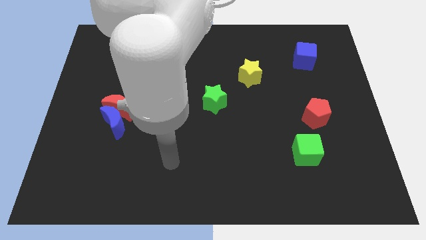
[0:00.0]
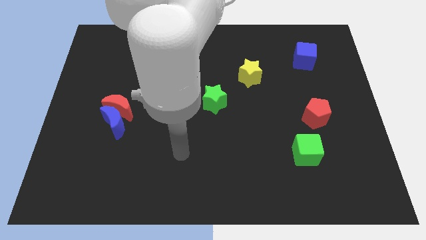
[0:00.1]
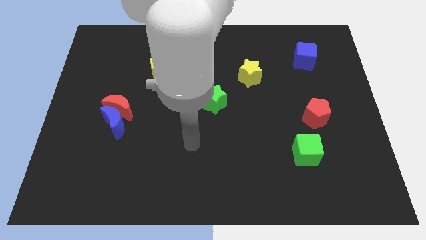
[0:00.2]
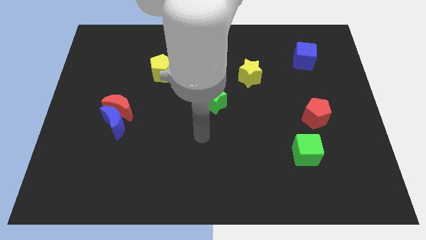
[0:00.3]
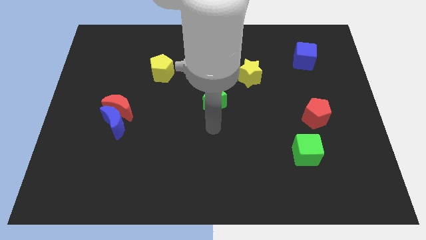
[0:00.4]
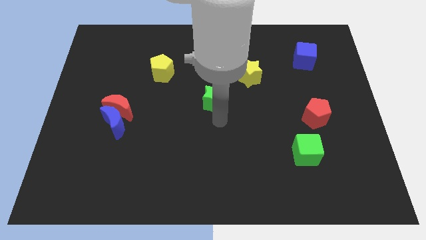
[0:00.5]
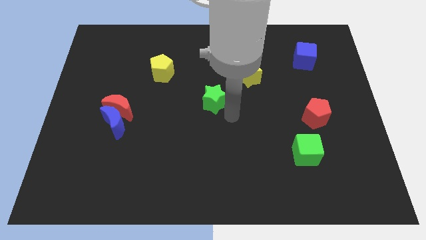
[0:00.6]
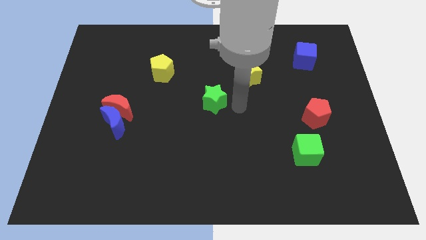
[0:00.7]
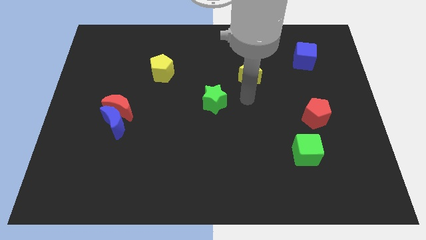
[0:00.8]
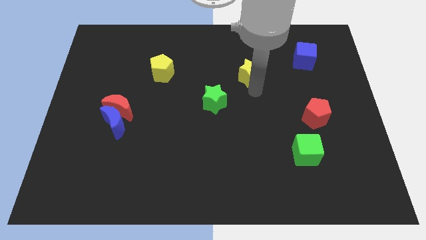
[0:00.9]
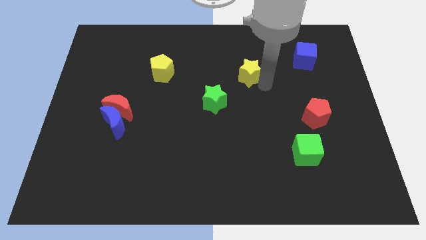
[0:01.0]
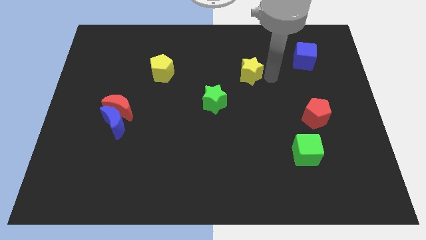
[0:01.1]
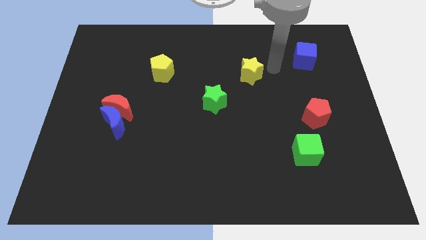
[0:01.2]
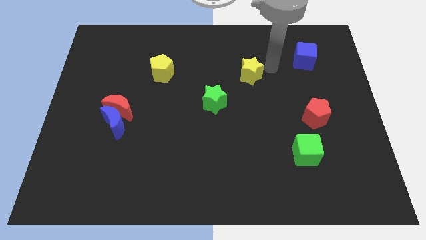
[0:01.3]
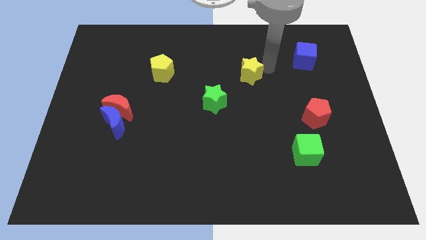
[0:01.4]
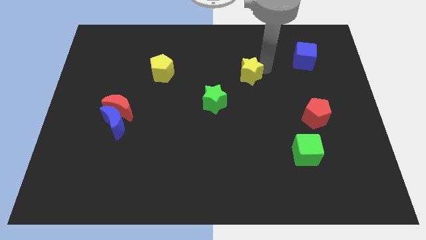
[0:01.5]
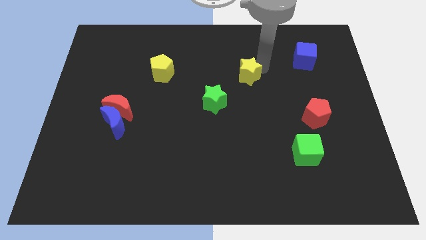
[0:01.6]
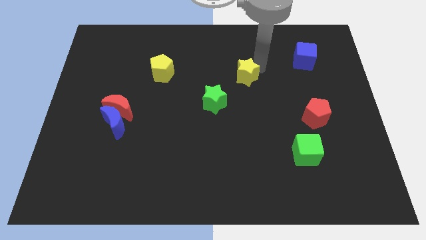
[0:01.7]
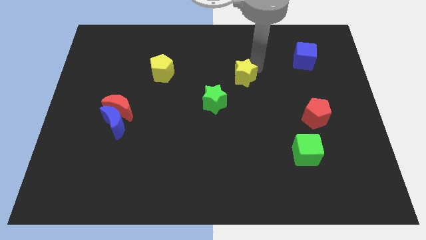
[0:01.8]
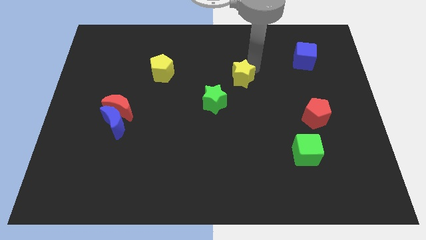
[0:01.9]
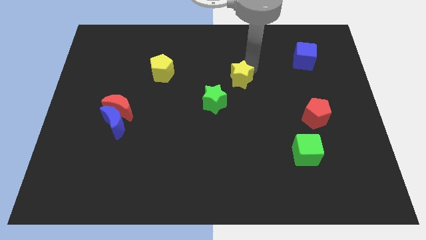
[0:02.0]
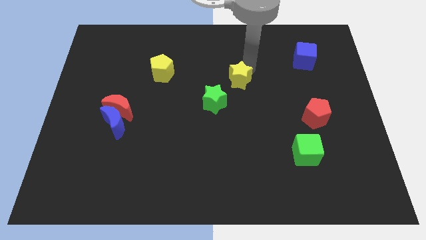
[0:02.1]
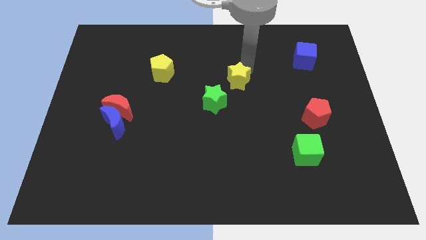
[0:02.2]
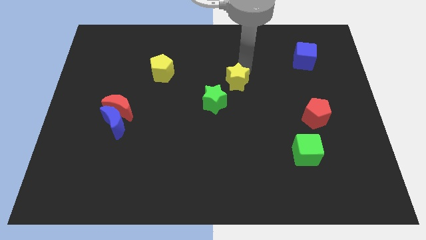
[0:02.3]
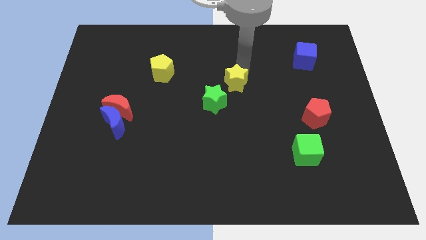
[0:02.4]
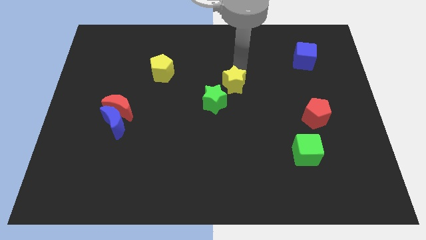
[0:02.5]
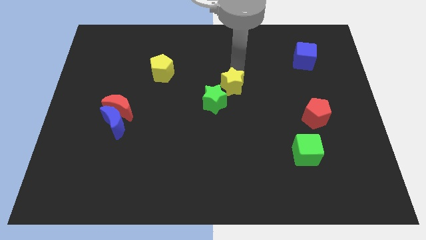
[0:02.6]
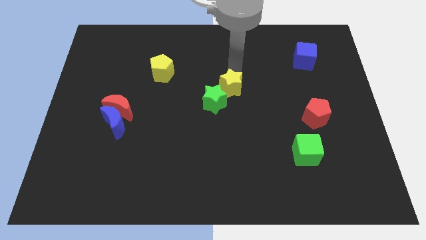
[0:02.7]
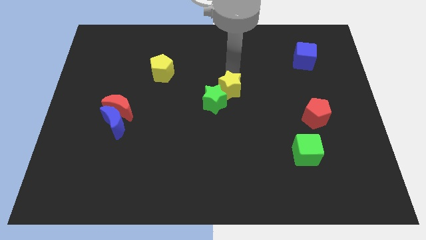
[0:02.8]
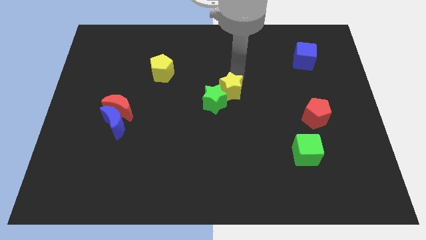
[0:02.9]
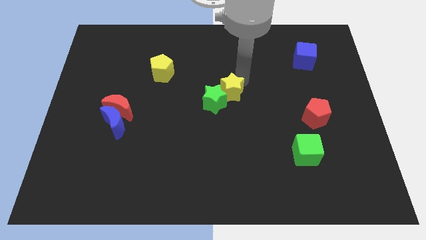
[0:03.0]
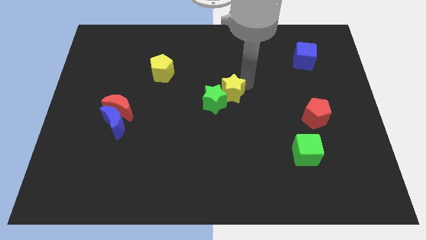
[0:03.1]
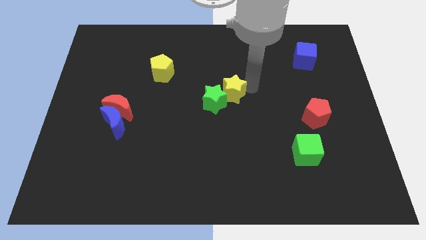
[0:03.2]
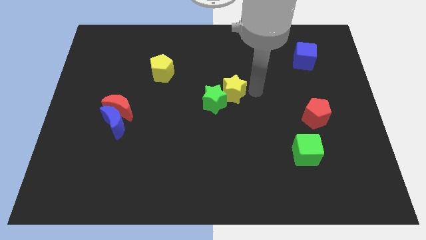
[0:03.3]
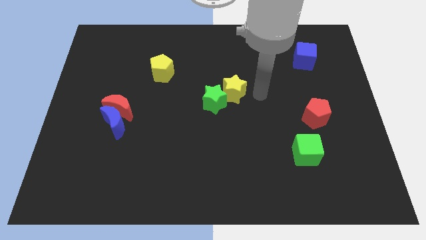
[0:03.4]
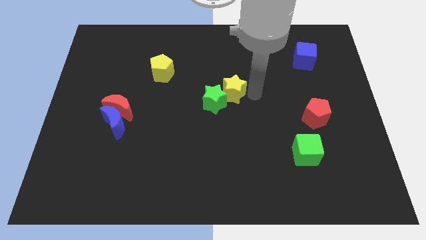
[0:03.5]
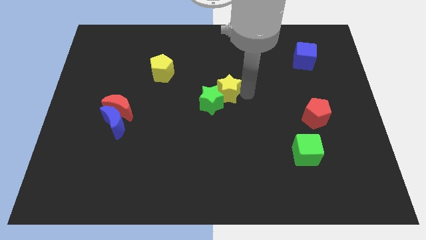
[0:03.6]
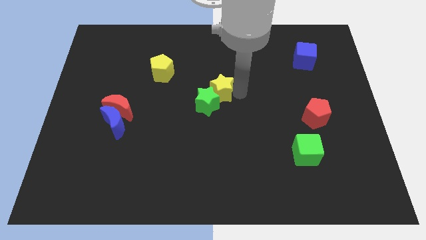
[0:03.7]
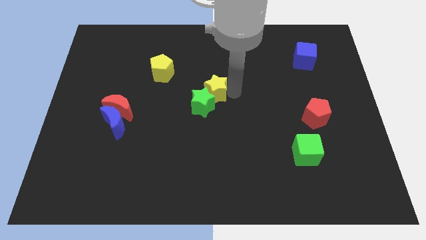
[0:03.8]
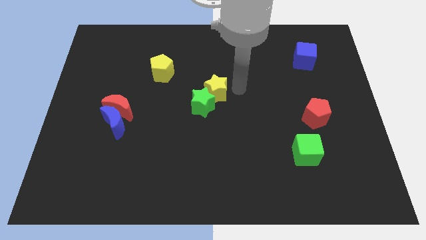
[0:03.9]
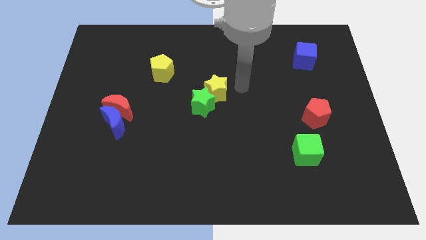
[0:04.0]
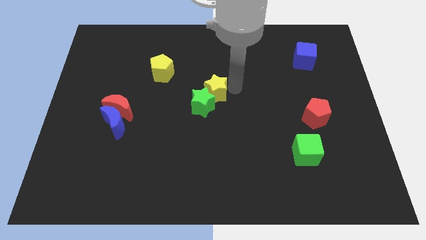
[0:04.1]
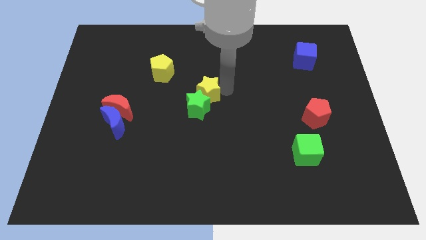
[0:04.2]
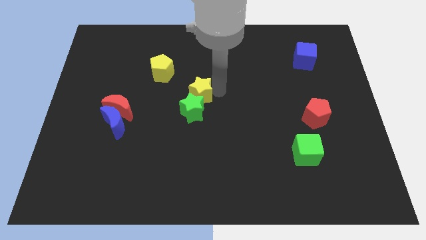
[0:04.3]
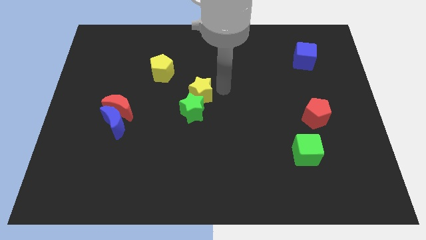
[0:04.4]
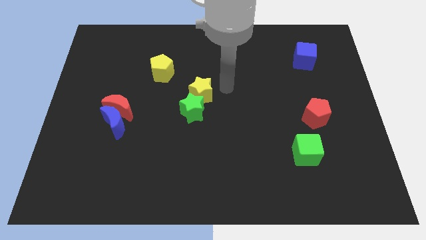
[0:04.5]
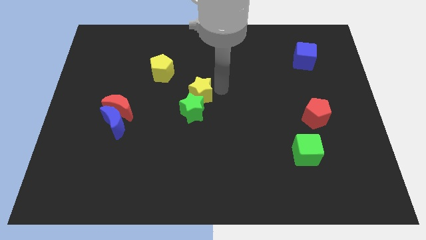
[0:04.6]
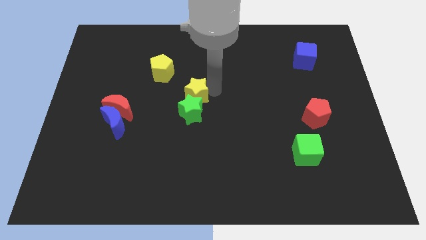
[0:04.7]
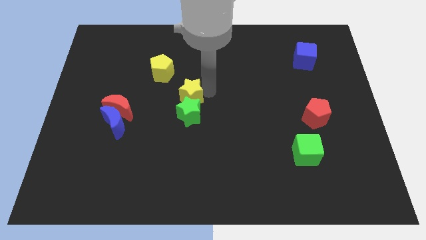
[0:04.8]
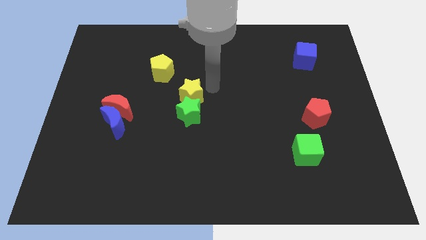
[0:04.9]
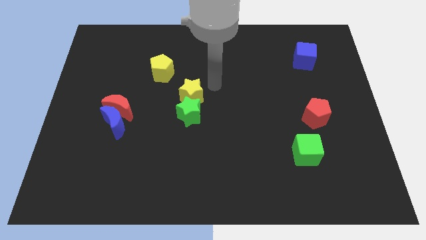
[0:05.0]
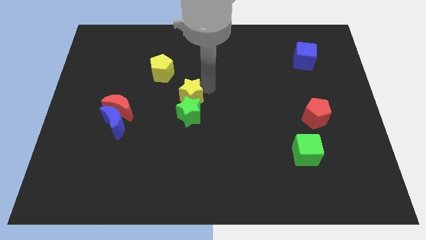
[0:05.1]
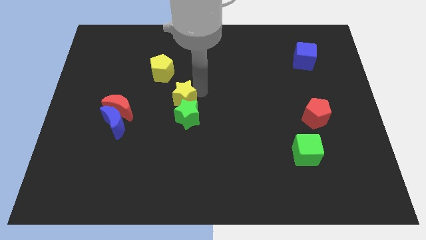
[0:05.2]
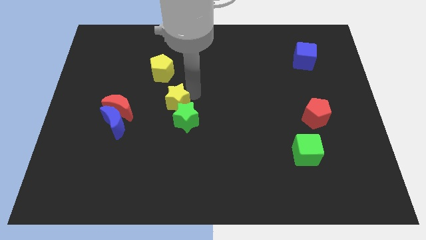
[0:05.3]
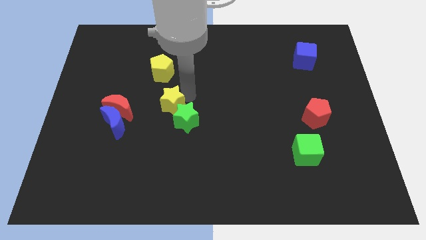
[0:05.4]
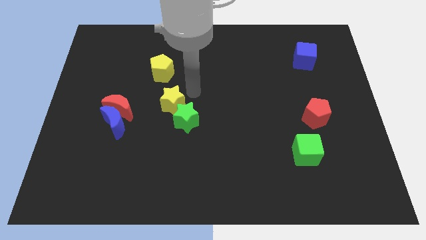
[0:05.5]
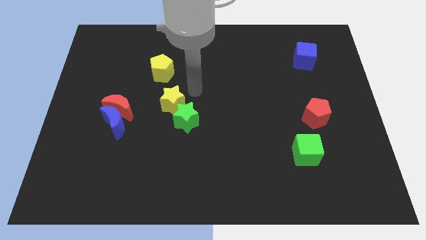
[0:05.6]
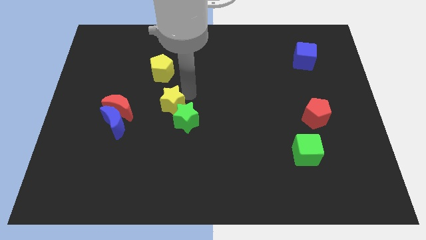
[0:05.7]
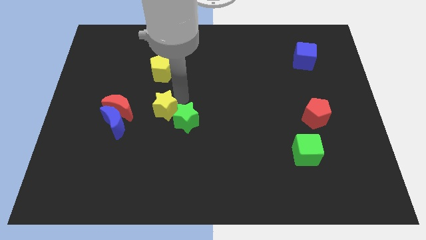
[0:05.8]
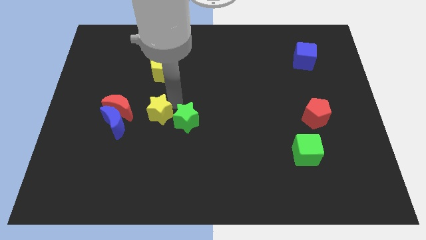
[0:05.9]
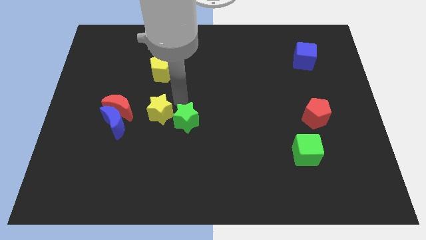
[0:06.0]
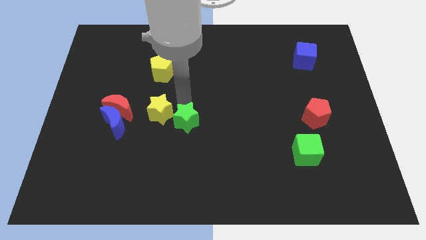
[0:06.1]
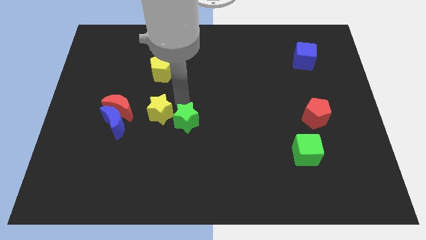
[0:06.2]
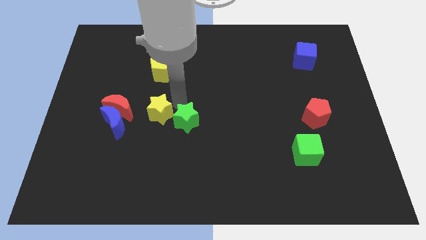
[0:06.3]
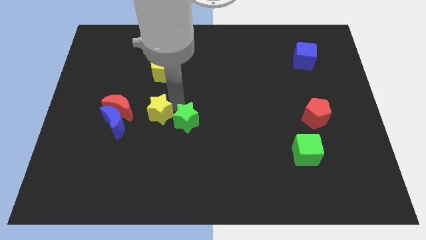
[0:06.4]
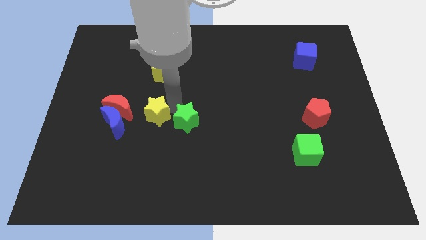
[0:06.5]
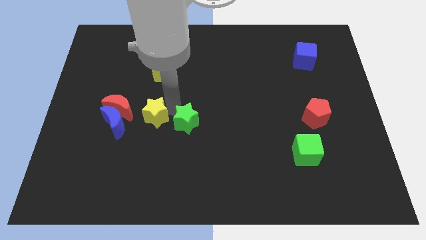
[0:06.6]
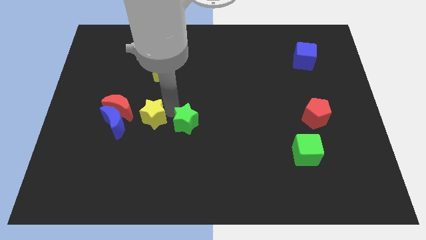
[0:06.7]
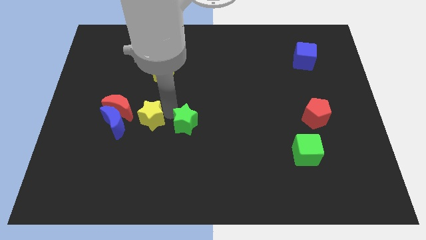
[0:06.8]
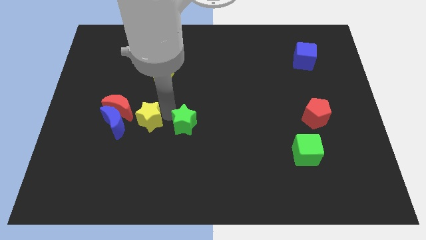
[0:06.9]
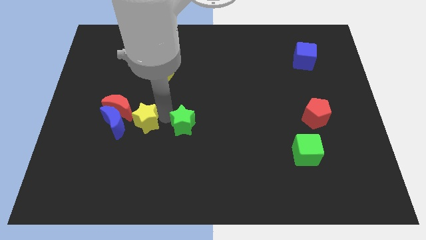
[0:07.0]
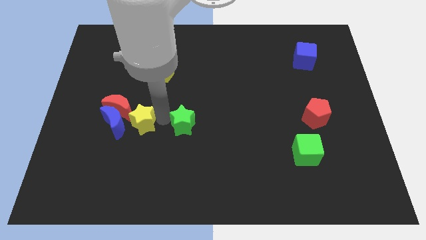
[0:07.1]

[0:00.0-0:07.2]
put the yellow star next to the blue moon
